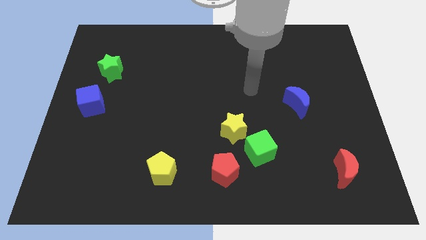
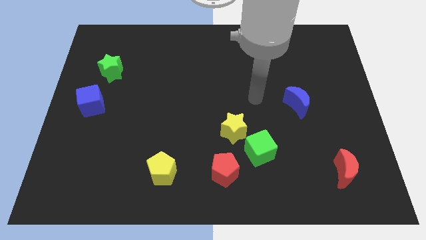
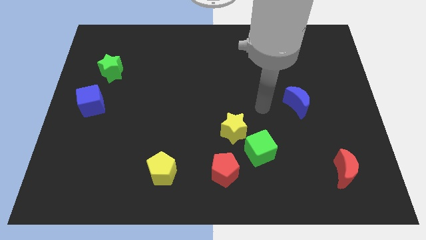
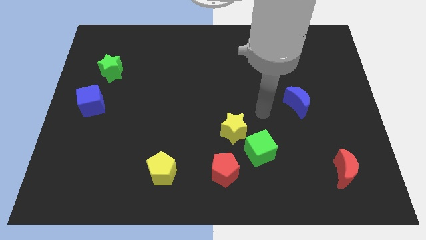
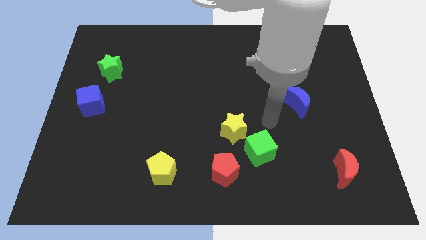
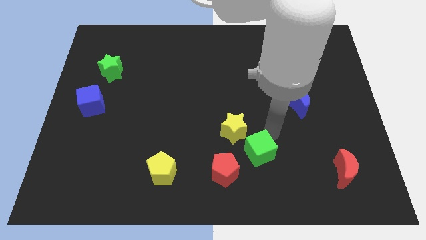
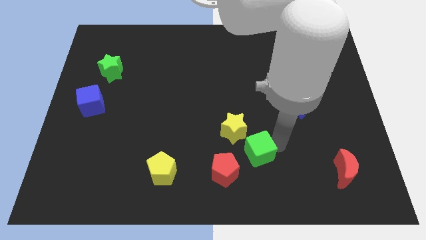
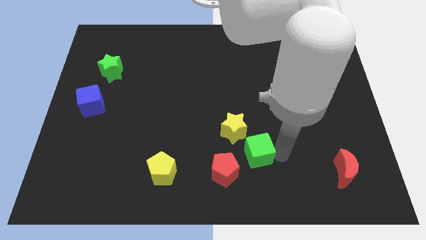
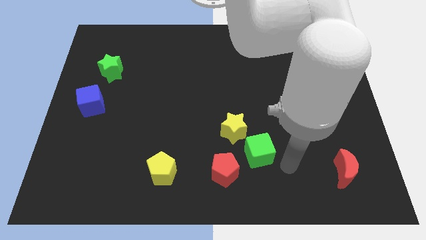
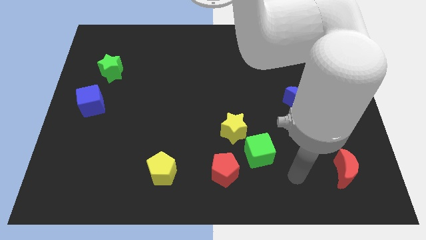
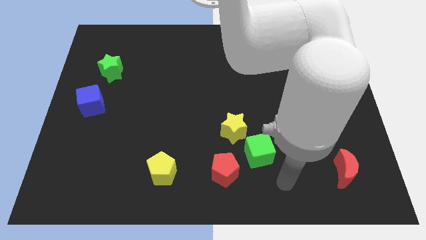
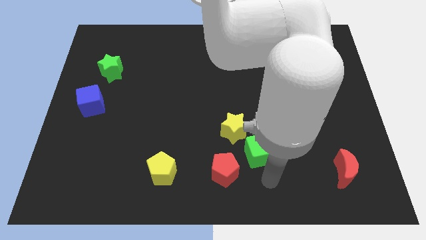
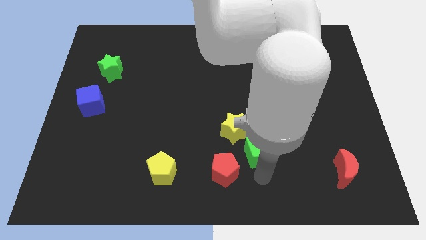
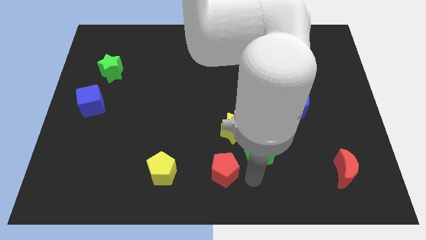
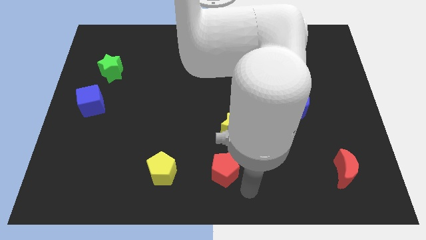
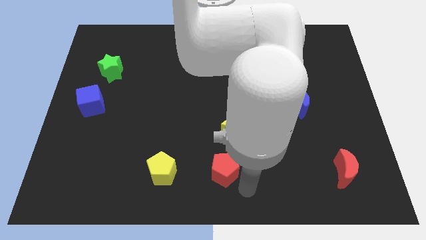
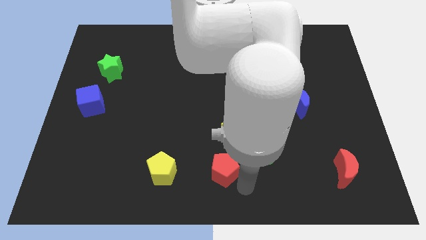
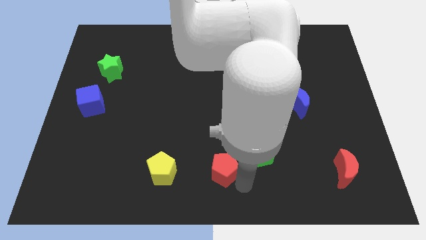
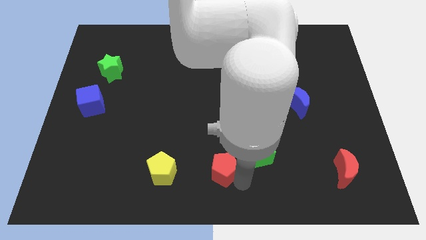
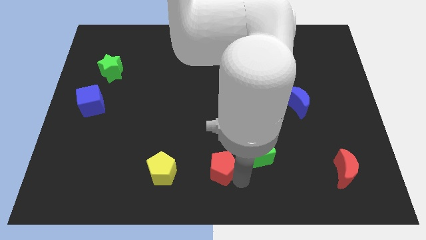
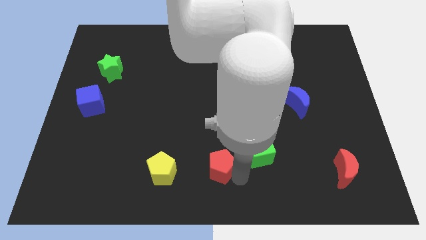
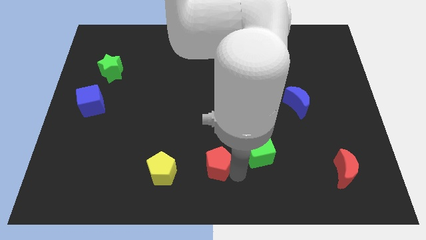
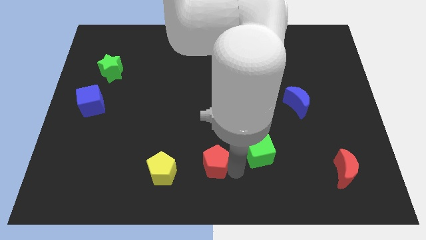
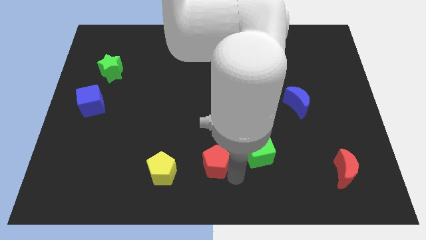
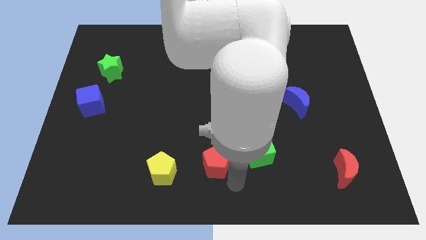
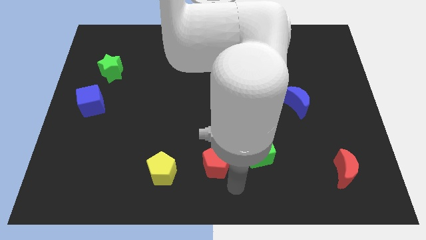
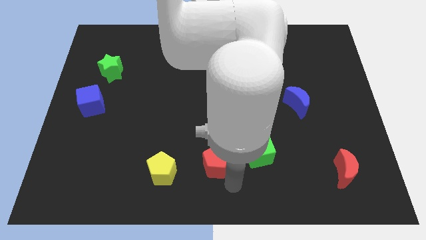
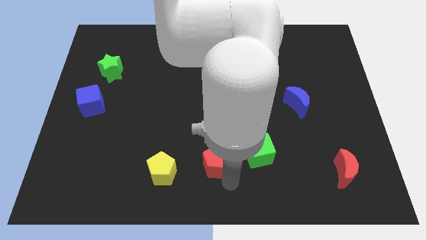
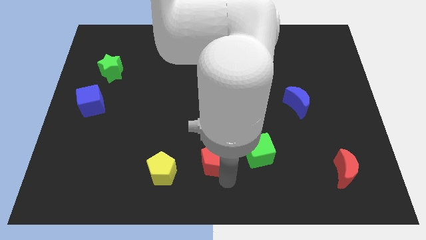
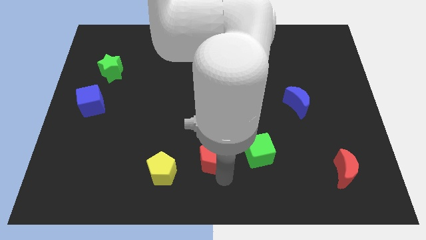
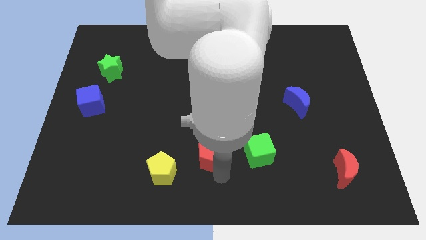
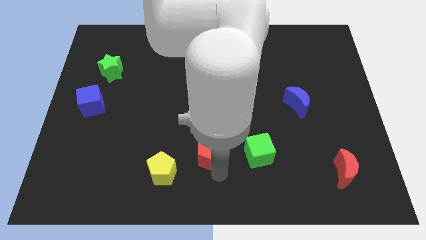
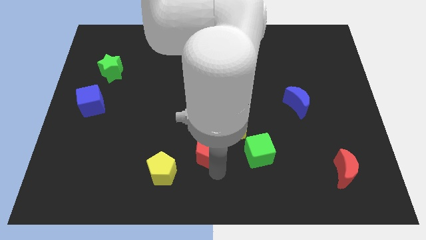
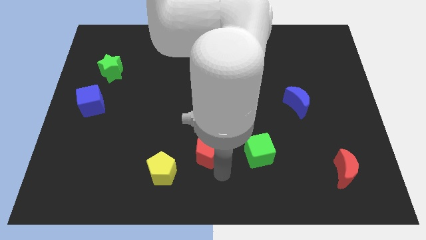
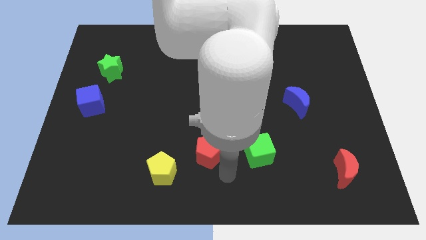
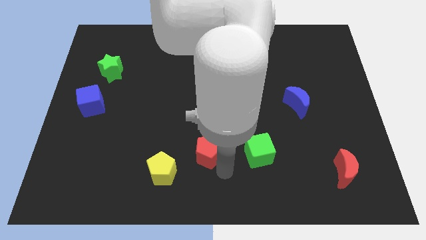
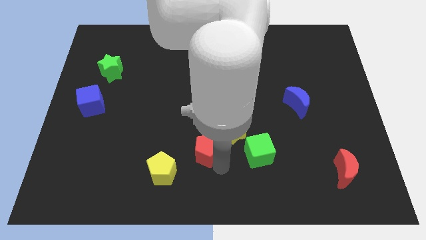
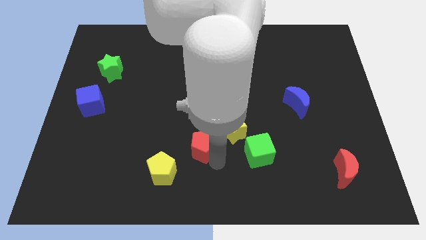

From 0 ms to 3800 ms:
slightly slide the red pentagon upwards and then left

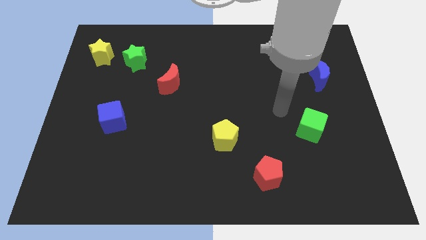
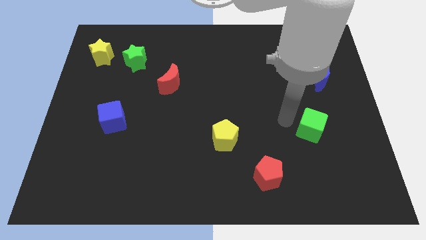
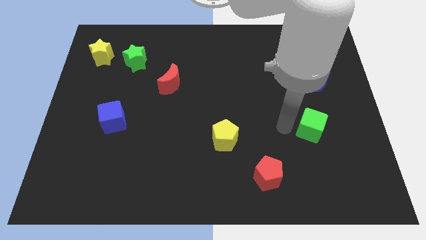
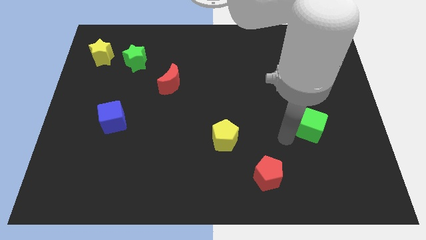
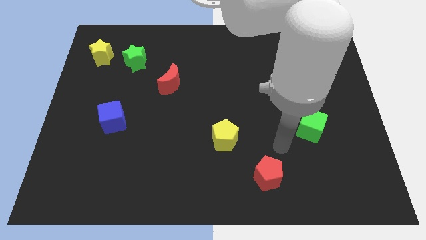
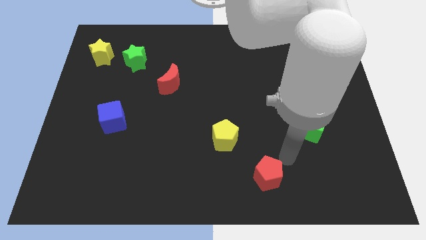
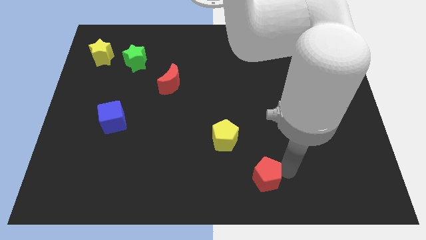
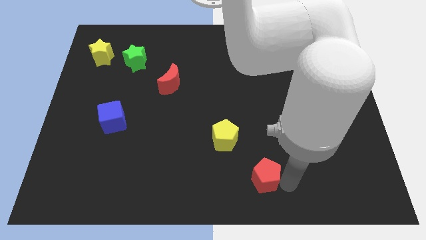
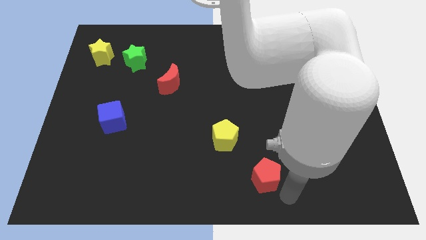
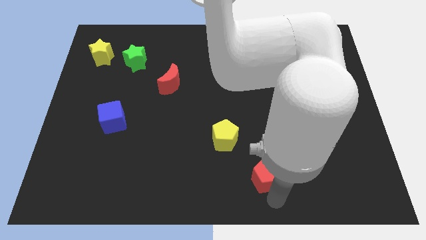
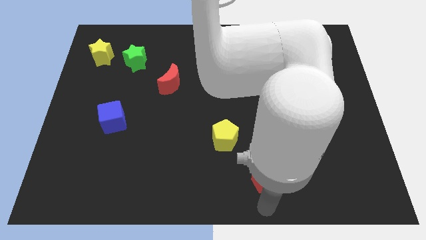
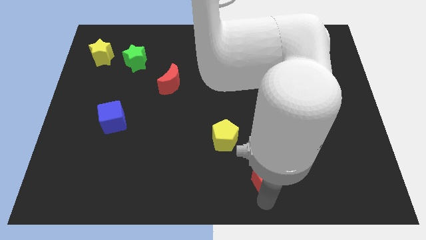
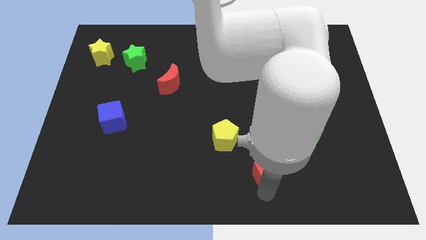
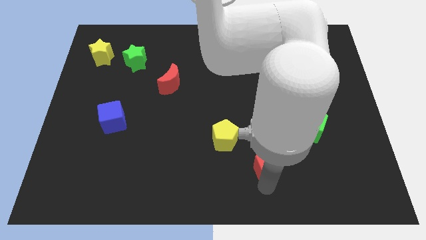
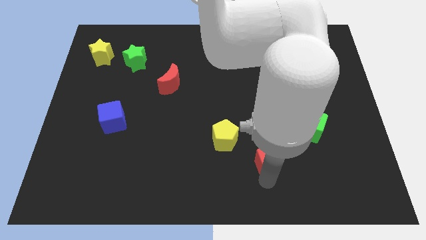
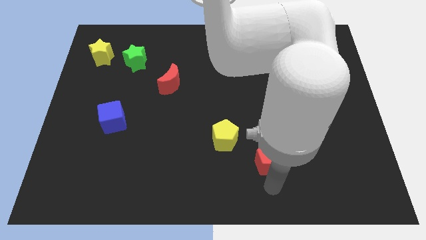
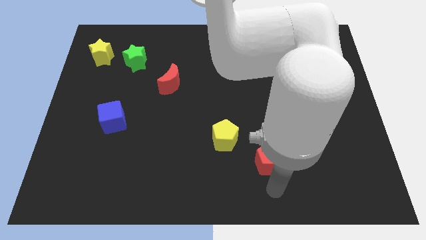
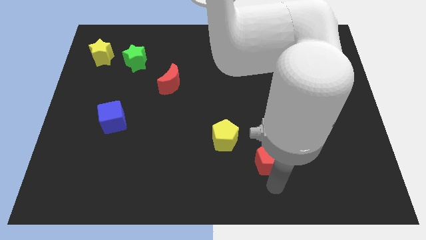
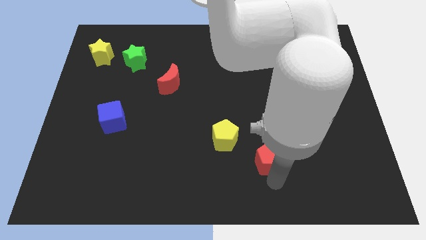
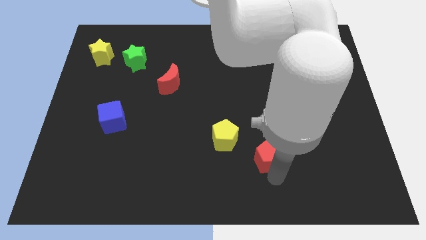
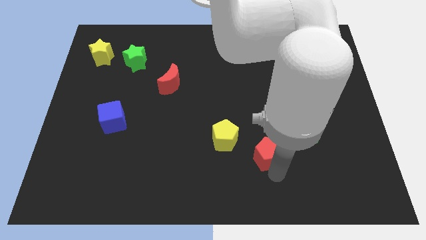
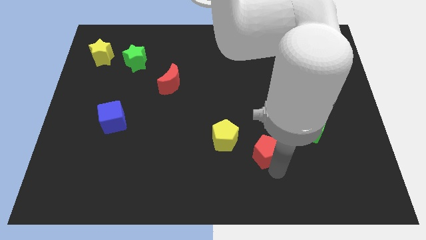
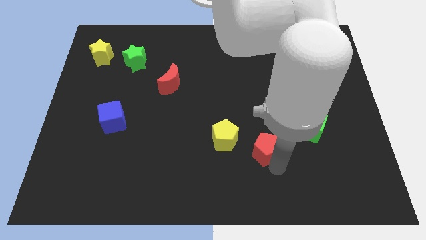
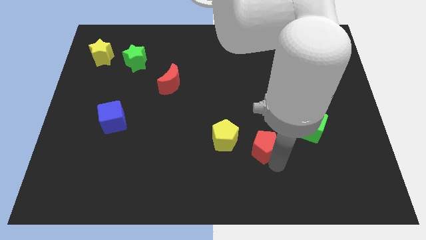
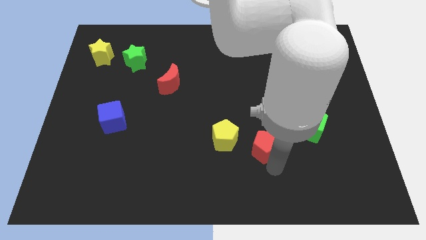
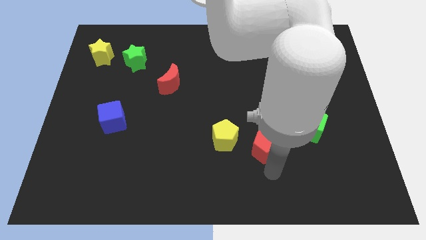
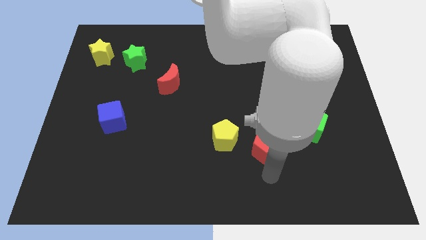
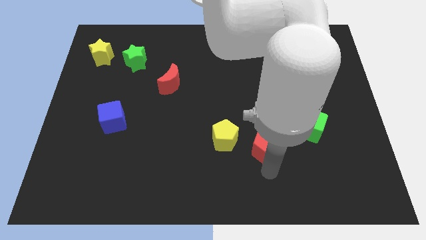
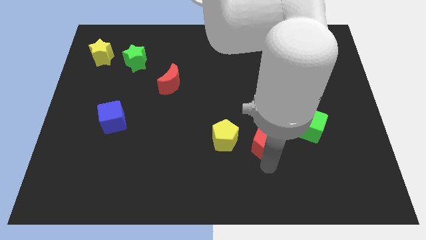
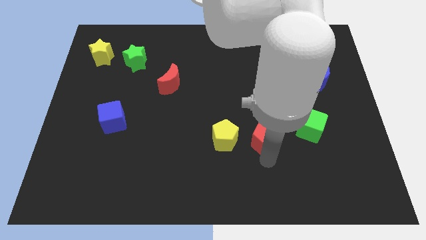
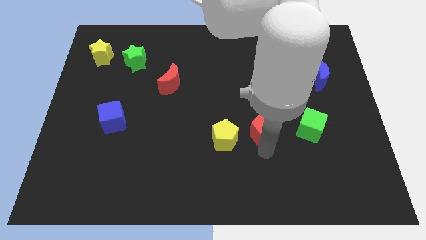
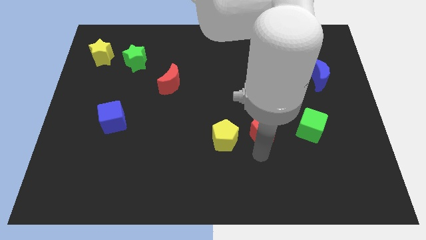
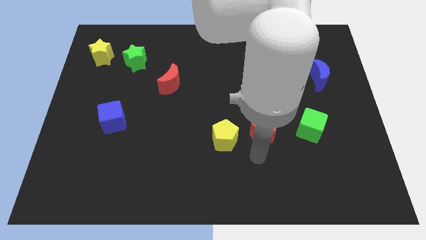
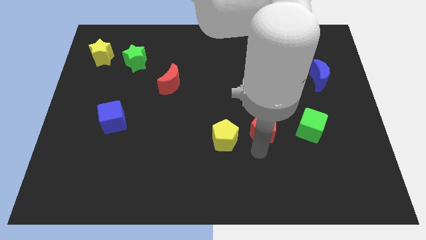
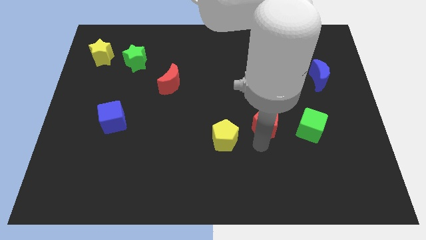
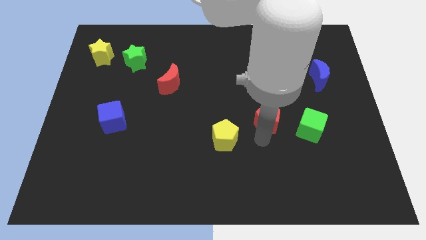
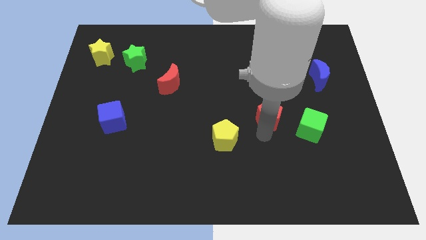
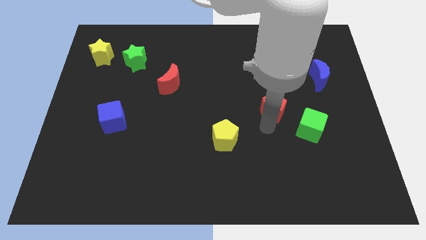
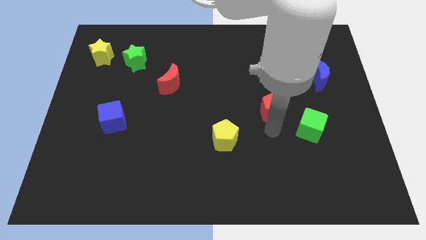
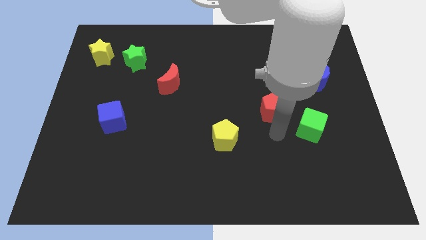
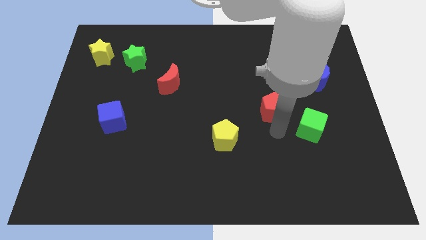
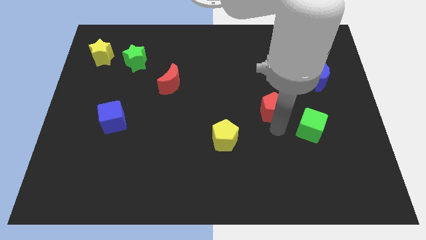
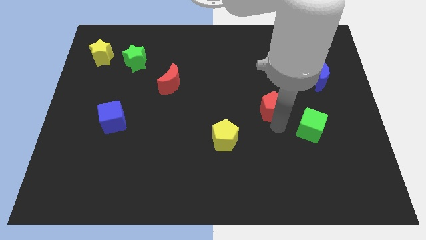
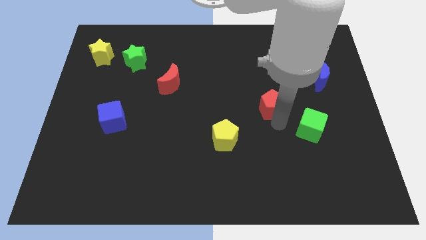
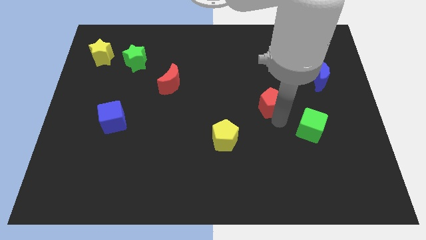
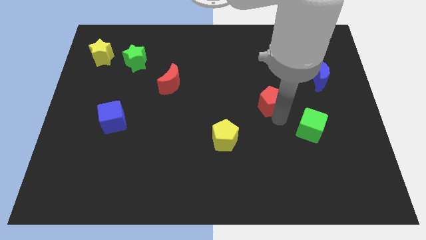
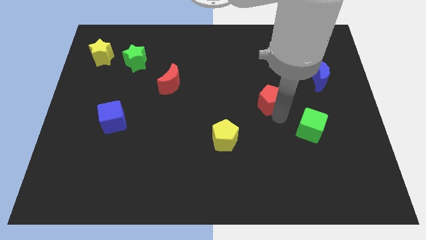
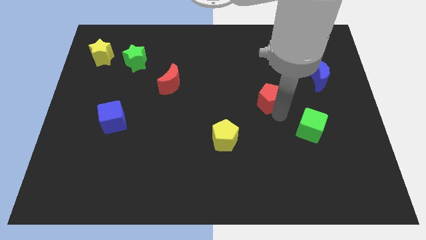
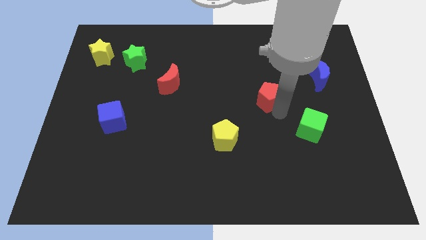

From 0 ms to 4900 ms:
move the red pentagon up
